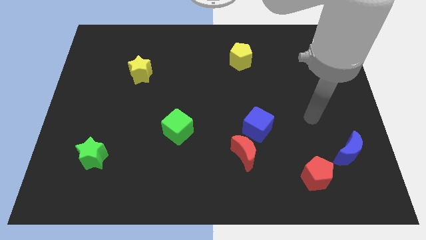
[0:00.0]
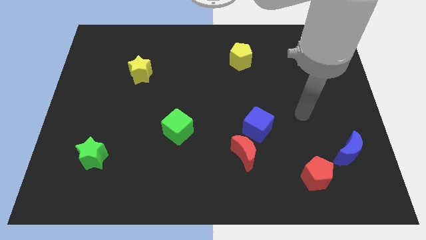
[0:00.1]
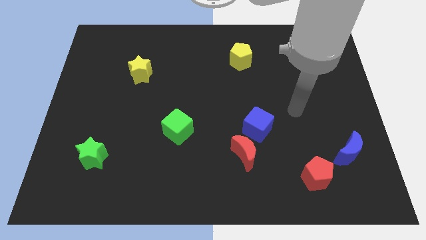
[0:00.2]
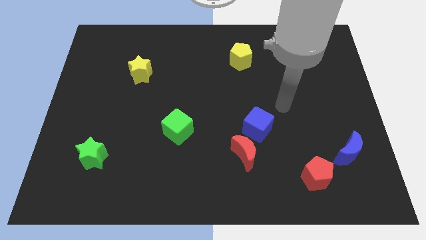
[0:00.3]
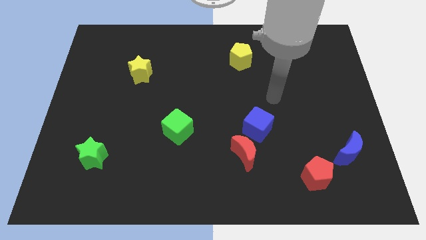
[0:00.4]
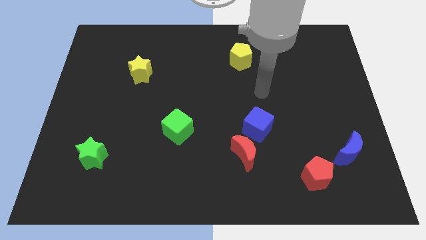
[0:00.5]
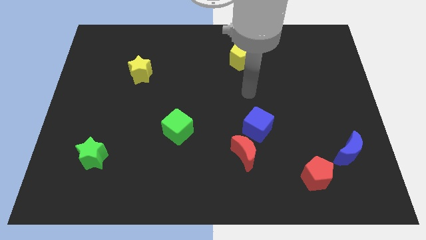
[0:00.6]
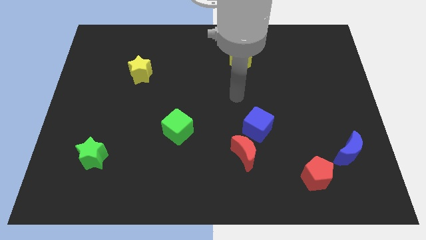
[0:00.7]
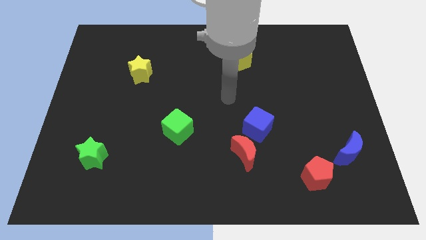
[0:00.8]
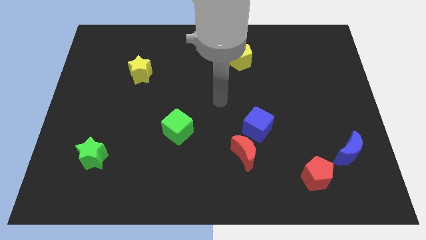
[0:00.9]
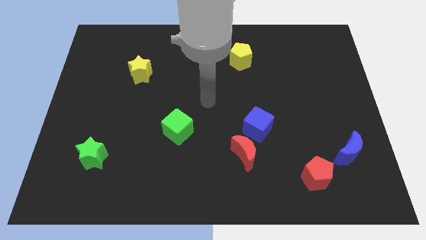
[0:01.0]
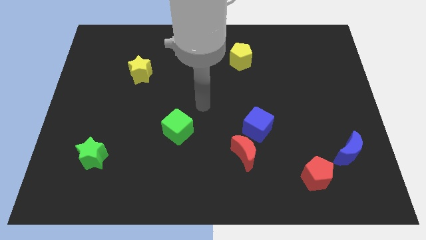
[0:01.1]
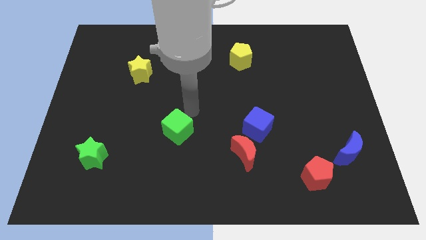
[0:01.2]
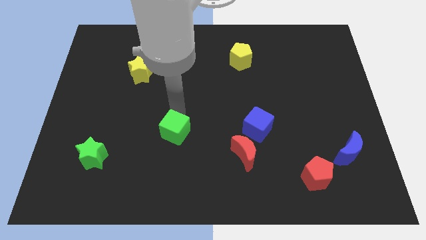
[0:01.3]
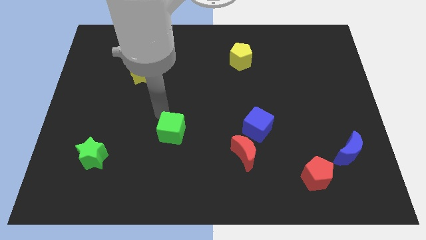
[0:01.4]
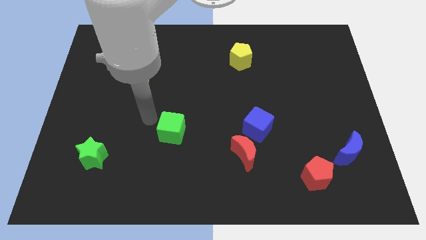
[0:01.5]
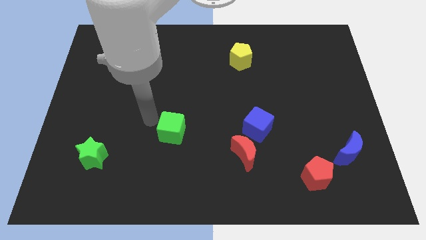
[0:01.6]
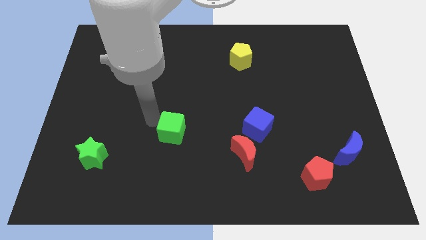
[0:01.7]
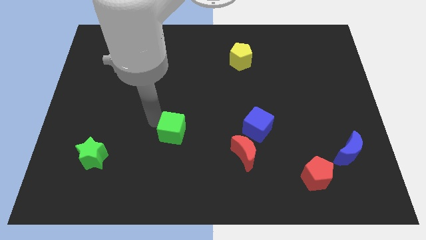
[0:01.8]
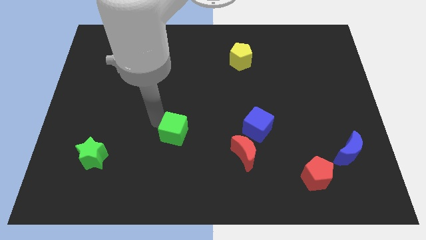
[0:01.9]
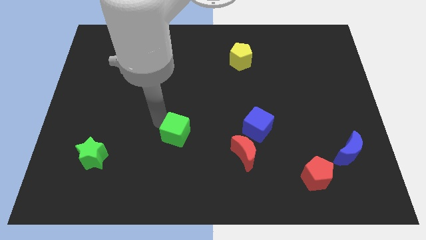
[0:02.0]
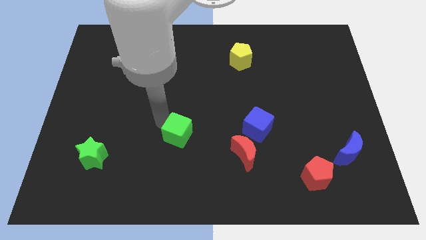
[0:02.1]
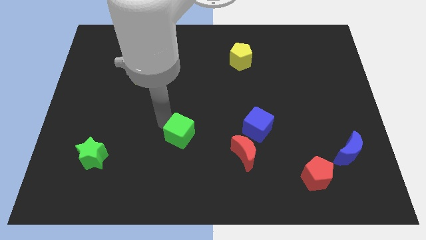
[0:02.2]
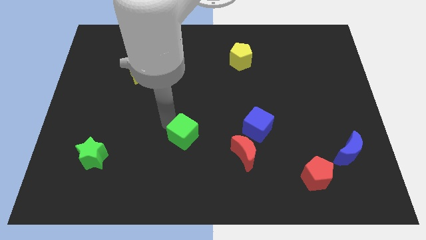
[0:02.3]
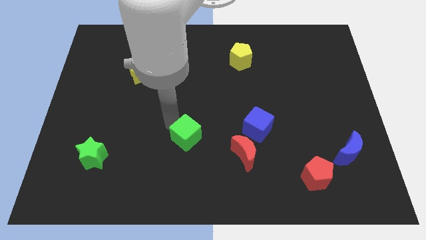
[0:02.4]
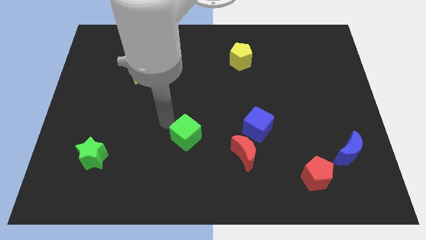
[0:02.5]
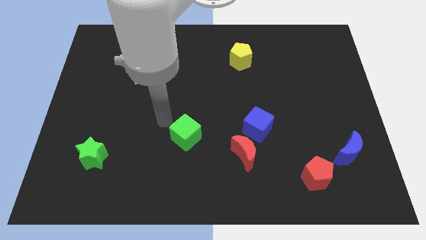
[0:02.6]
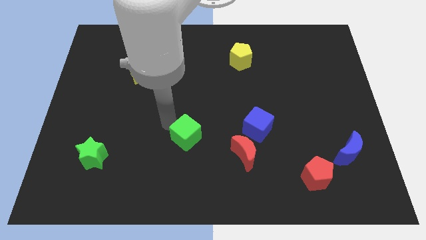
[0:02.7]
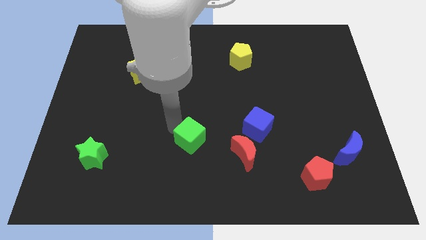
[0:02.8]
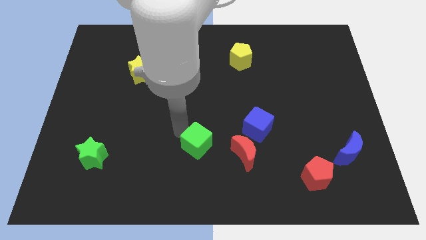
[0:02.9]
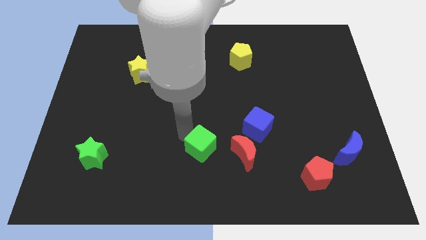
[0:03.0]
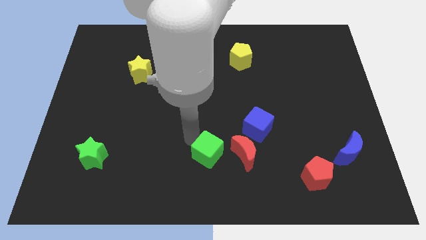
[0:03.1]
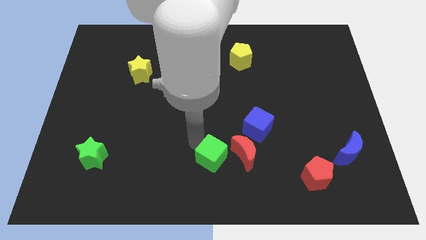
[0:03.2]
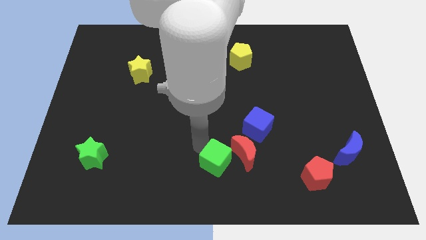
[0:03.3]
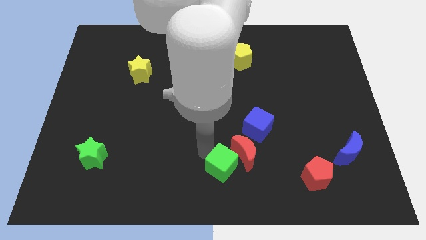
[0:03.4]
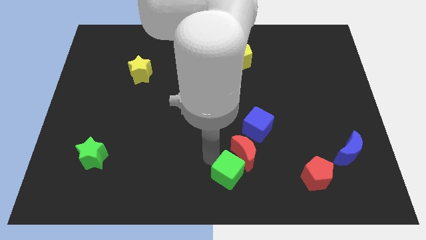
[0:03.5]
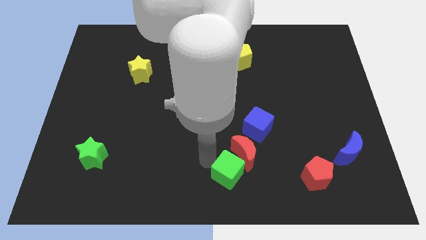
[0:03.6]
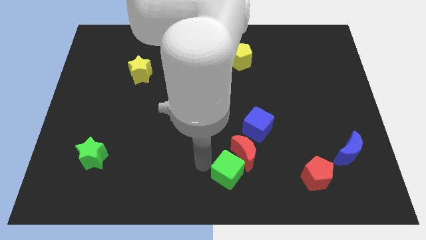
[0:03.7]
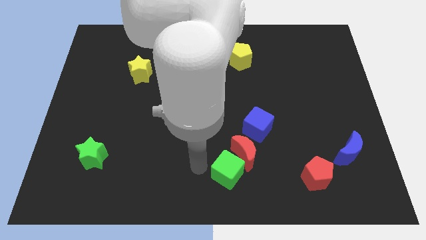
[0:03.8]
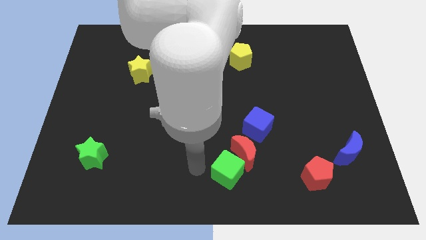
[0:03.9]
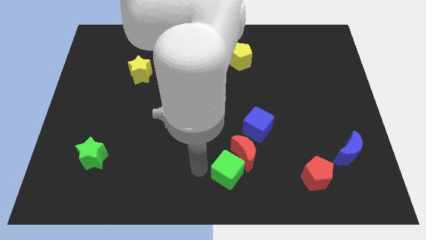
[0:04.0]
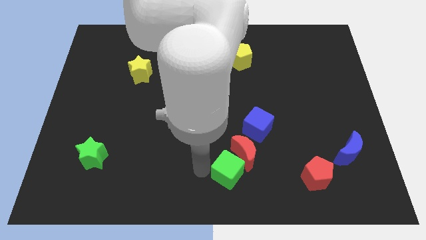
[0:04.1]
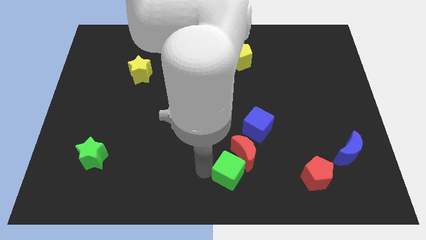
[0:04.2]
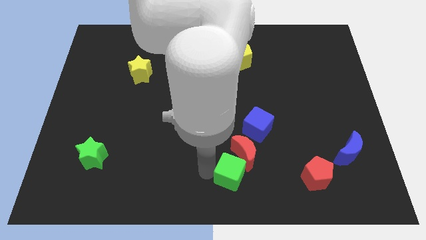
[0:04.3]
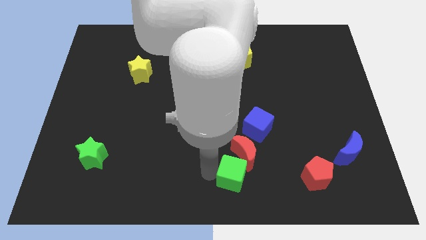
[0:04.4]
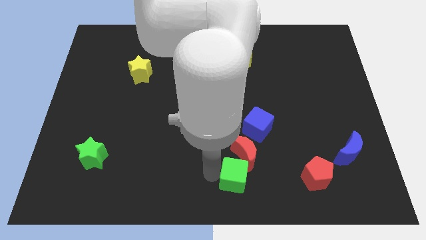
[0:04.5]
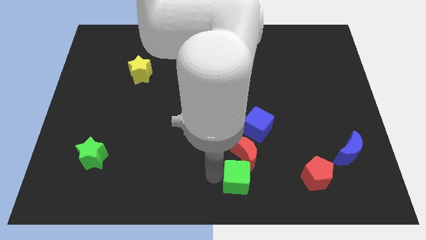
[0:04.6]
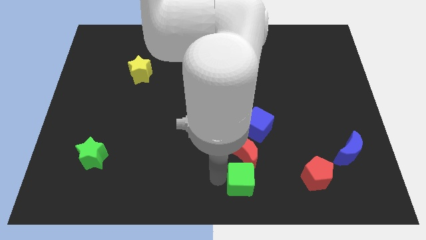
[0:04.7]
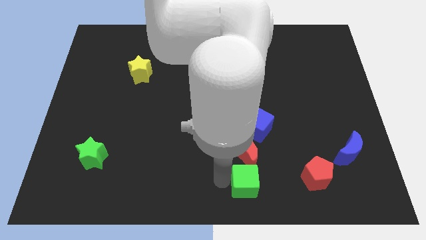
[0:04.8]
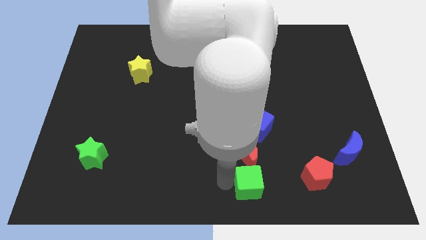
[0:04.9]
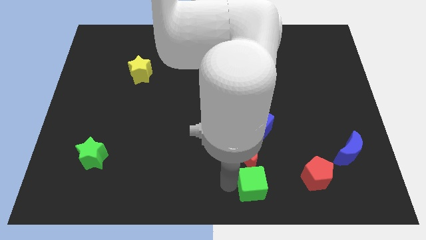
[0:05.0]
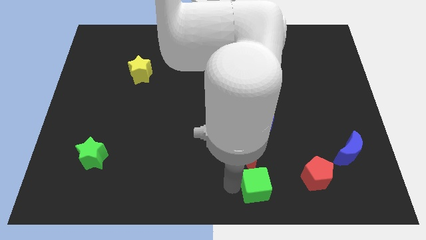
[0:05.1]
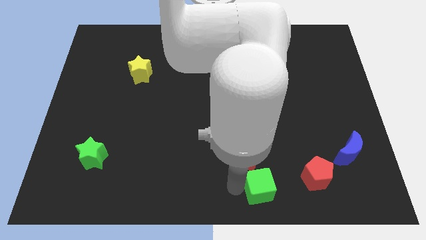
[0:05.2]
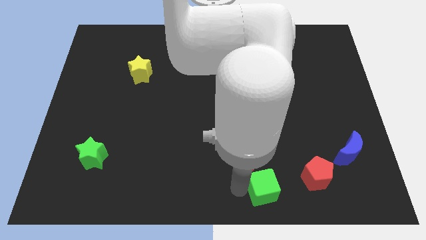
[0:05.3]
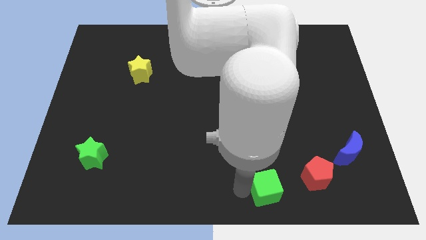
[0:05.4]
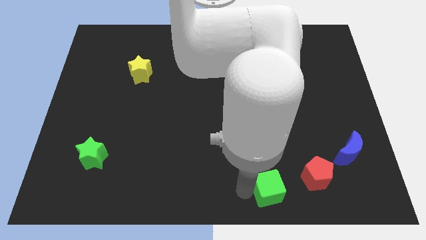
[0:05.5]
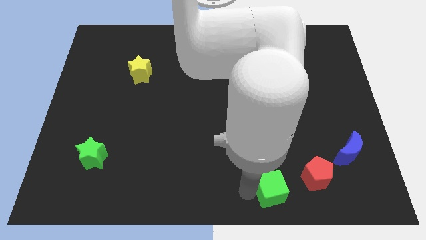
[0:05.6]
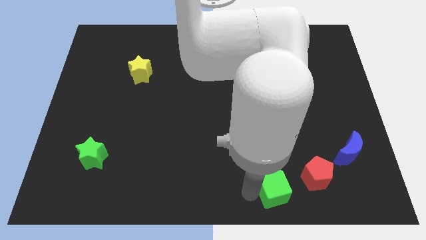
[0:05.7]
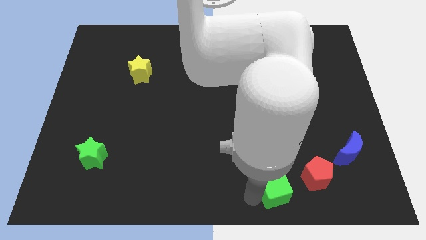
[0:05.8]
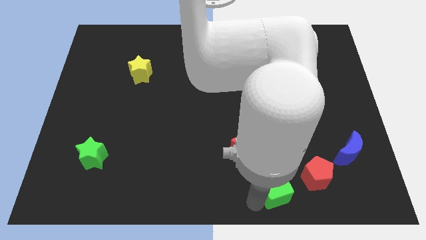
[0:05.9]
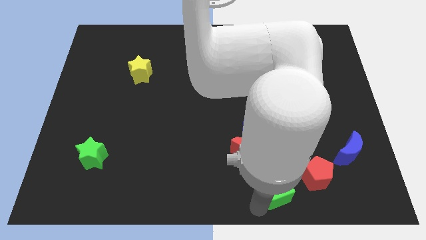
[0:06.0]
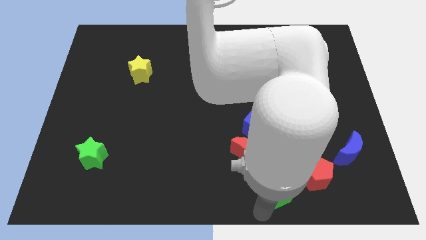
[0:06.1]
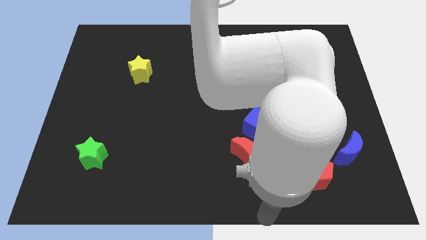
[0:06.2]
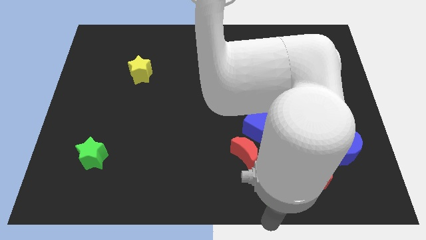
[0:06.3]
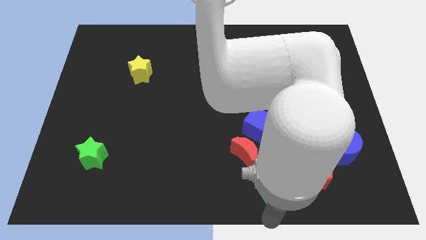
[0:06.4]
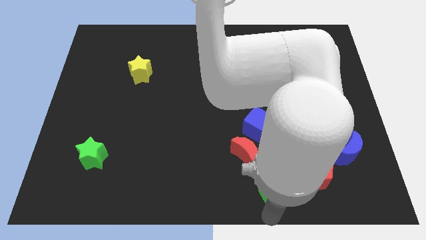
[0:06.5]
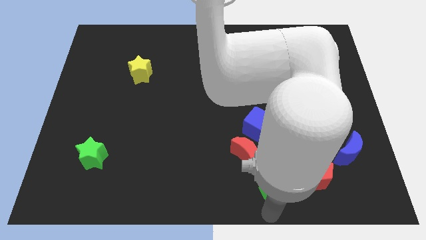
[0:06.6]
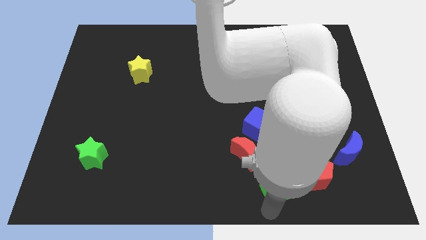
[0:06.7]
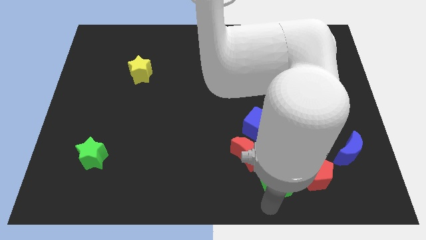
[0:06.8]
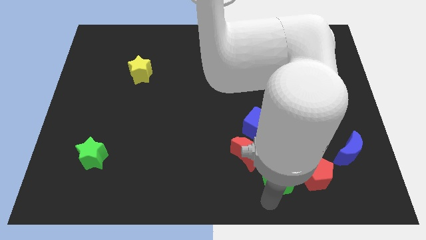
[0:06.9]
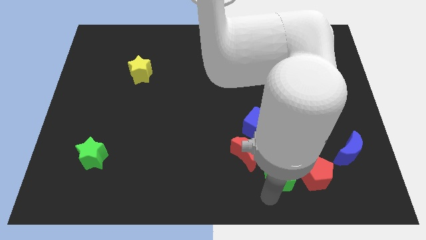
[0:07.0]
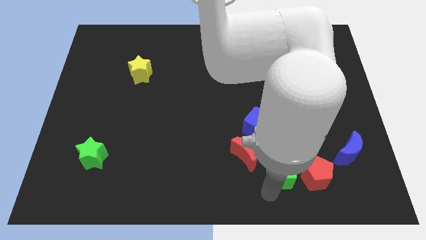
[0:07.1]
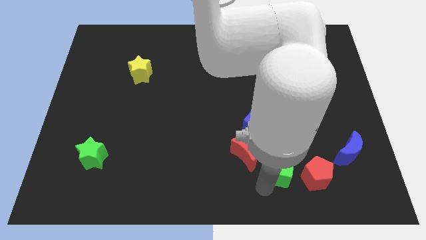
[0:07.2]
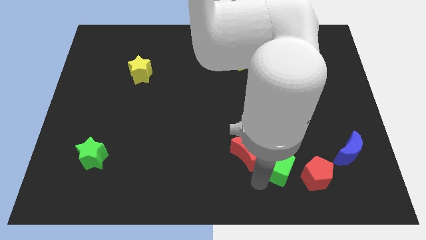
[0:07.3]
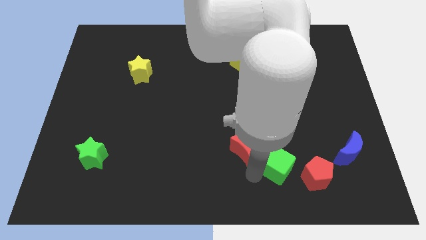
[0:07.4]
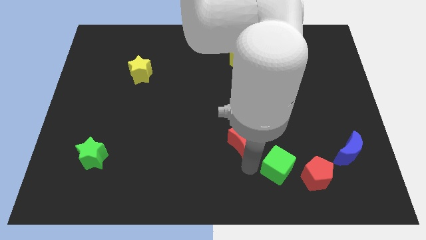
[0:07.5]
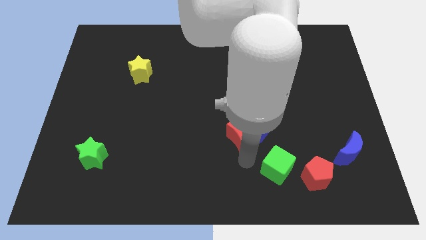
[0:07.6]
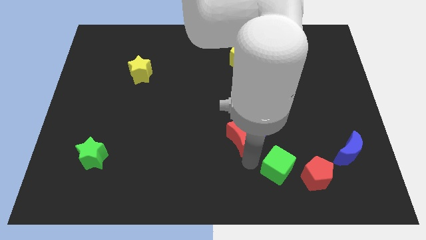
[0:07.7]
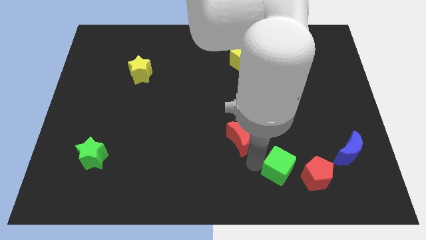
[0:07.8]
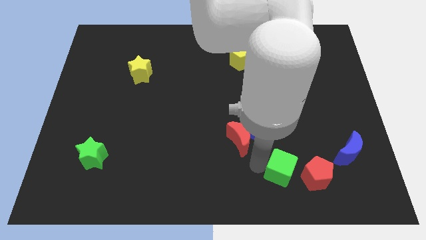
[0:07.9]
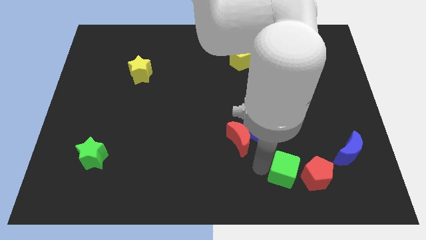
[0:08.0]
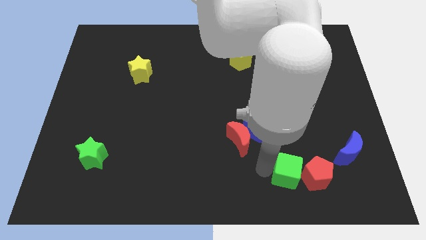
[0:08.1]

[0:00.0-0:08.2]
push the green cube close to the red pentagon
